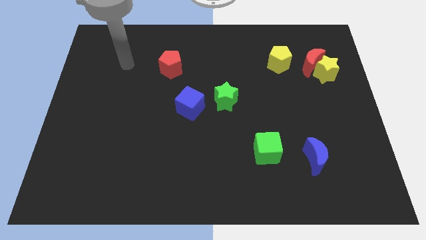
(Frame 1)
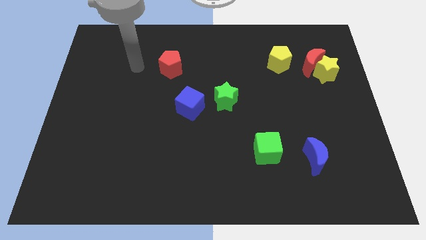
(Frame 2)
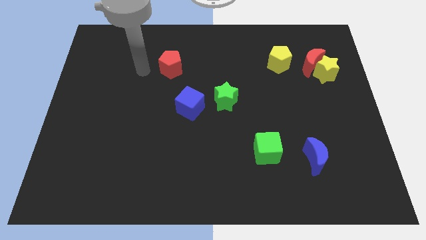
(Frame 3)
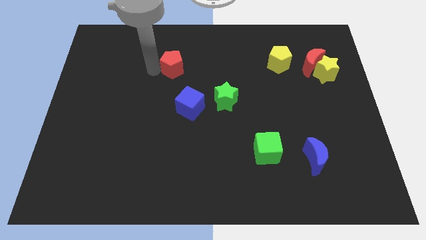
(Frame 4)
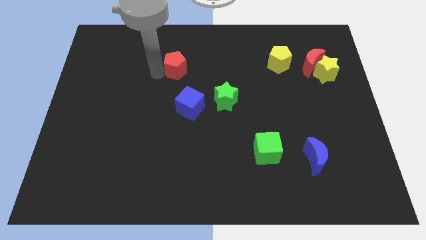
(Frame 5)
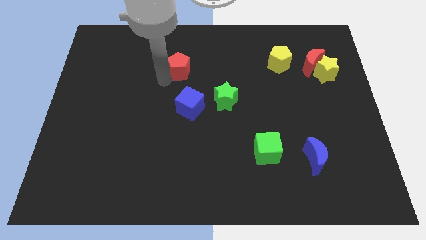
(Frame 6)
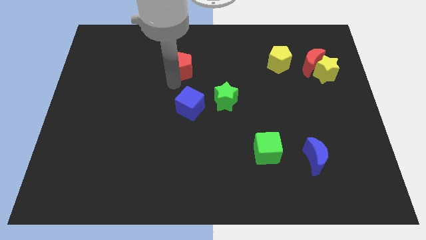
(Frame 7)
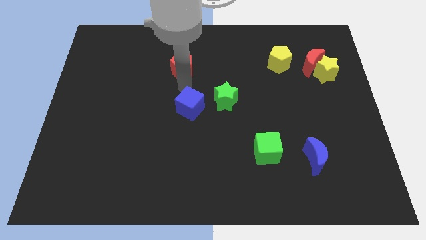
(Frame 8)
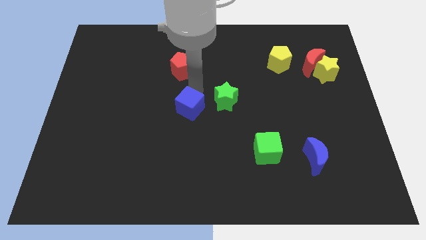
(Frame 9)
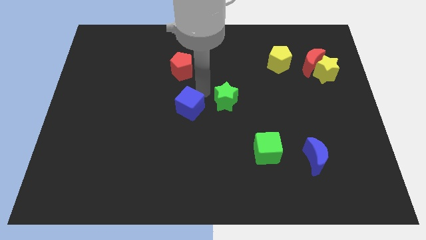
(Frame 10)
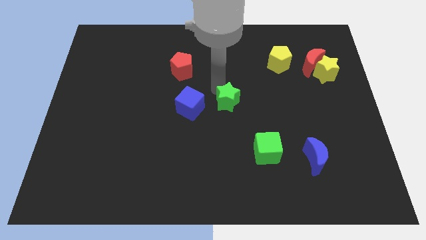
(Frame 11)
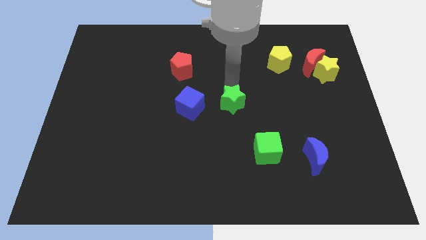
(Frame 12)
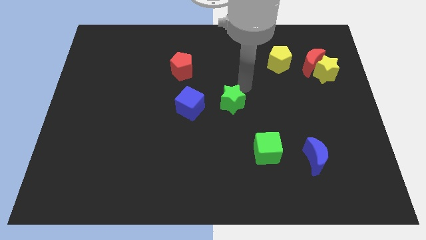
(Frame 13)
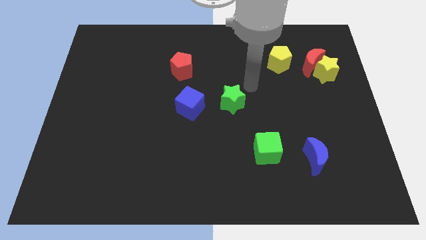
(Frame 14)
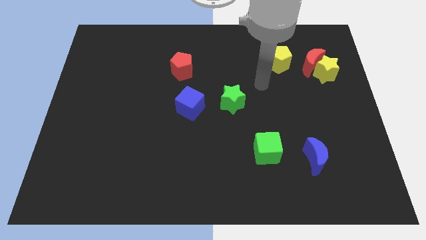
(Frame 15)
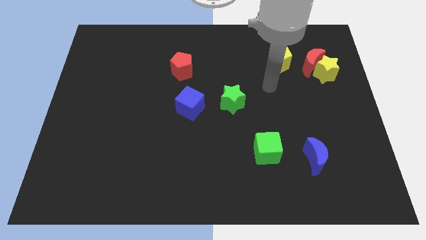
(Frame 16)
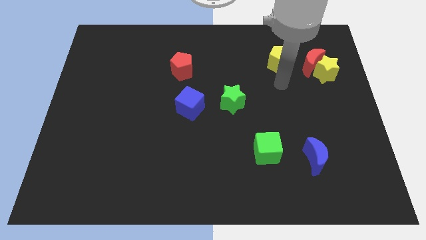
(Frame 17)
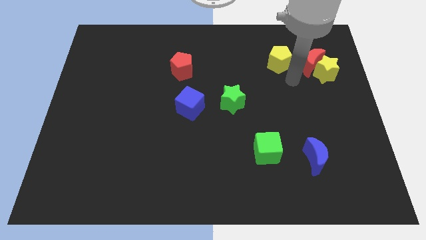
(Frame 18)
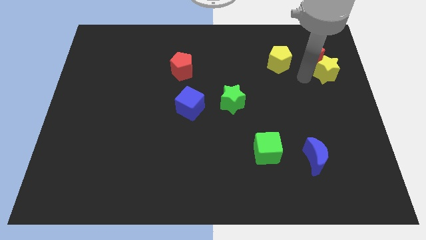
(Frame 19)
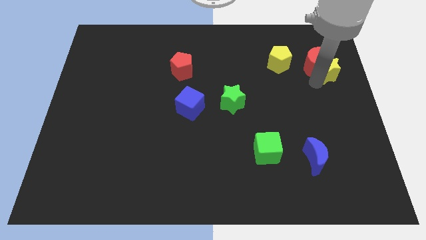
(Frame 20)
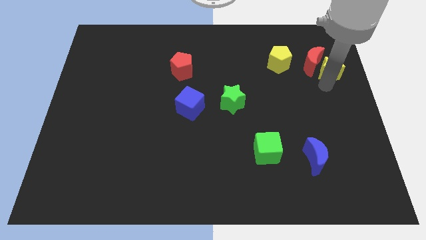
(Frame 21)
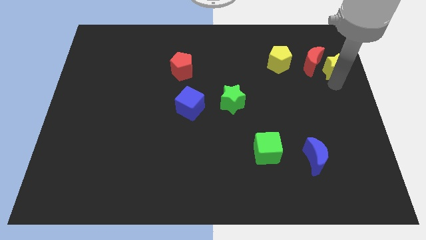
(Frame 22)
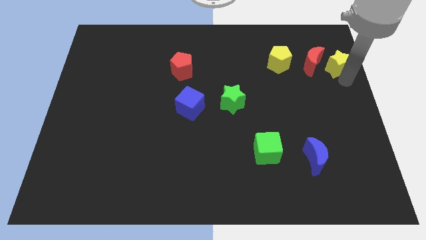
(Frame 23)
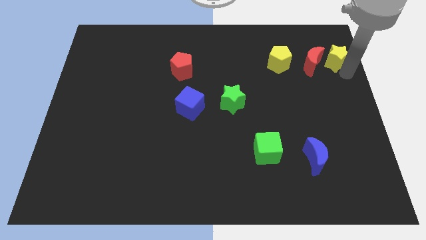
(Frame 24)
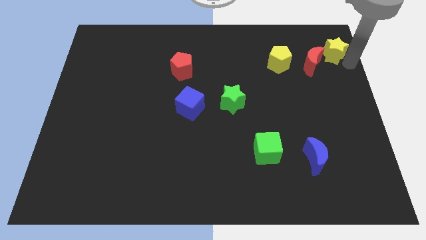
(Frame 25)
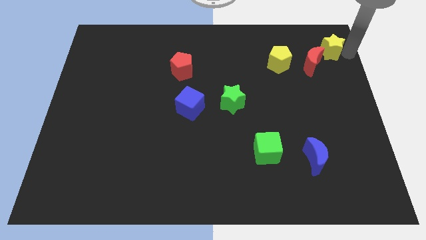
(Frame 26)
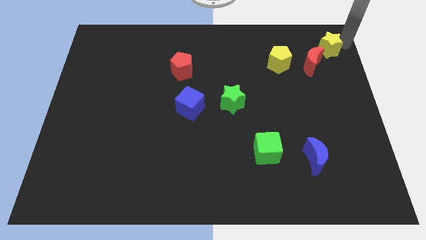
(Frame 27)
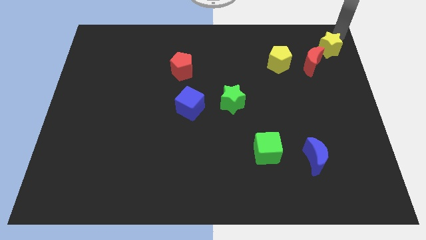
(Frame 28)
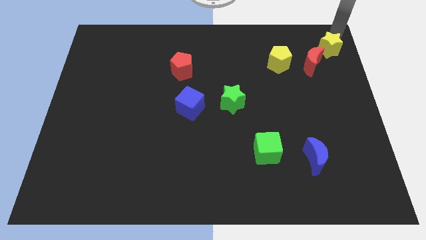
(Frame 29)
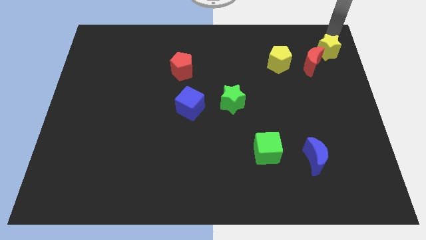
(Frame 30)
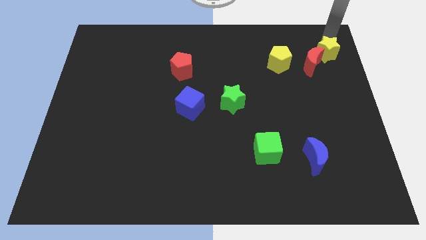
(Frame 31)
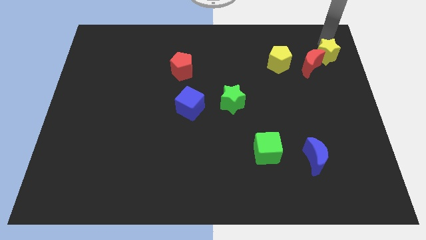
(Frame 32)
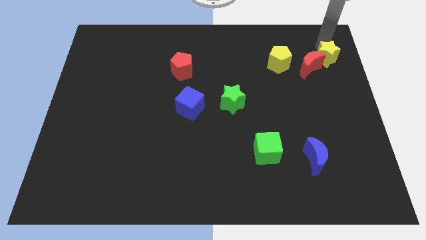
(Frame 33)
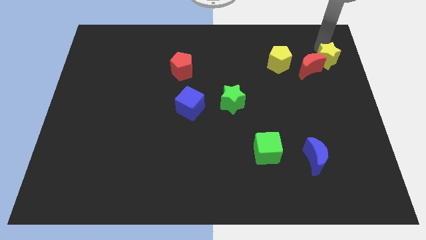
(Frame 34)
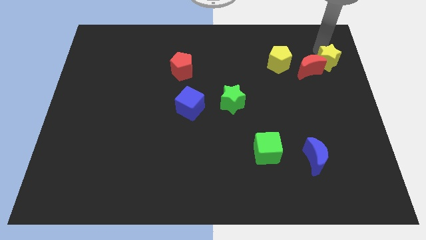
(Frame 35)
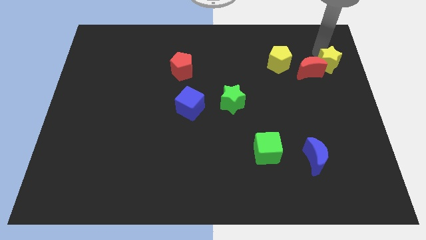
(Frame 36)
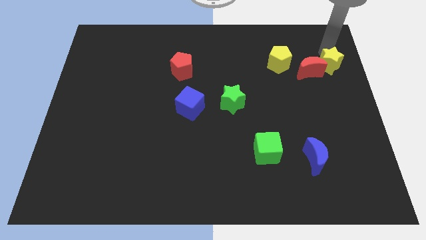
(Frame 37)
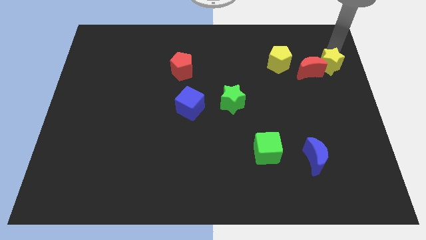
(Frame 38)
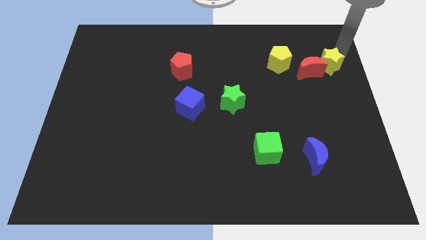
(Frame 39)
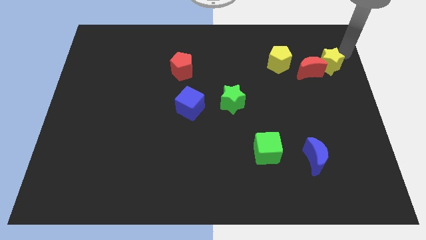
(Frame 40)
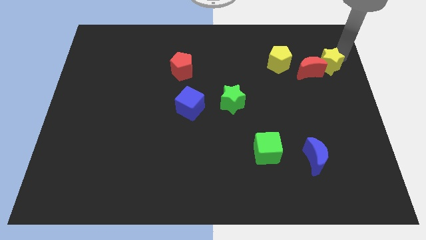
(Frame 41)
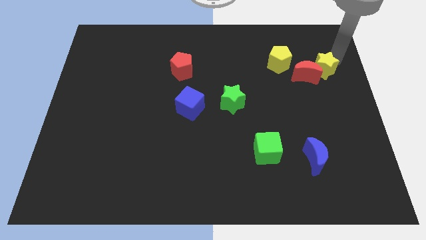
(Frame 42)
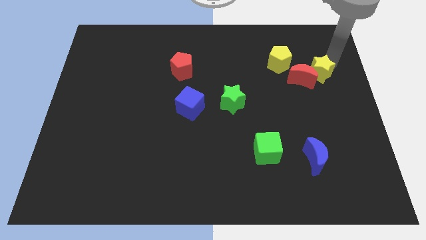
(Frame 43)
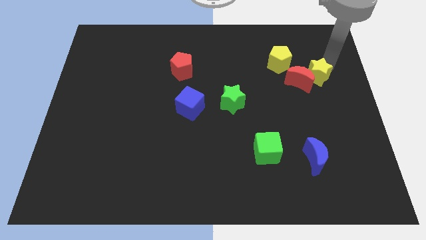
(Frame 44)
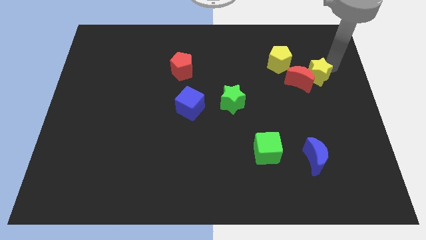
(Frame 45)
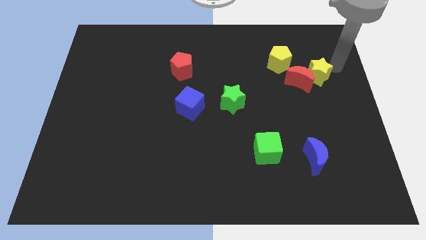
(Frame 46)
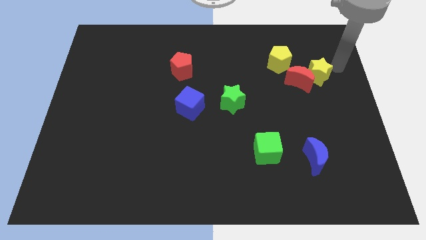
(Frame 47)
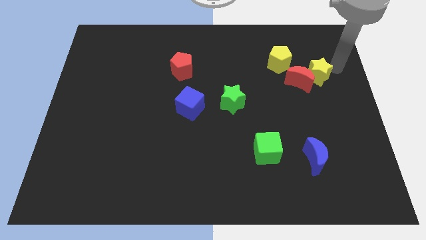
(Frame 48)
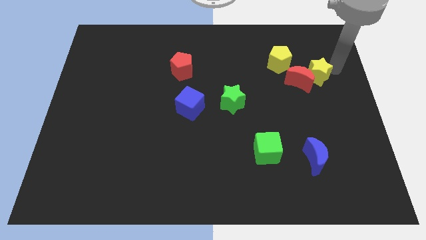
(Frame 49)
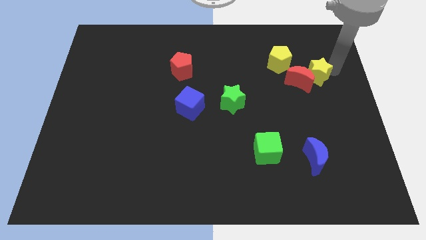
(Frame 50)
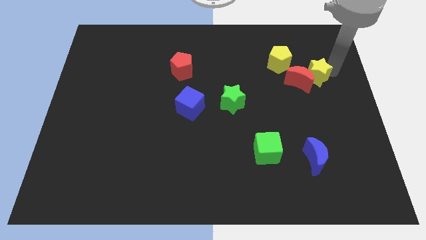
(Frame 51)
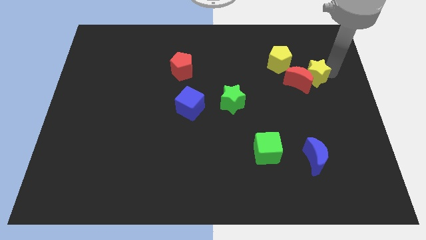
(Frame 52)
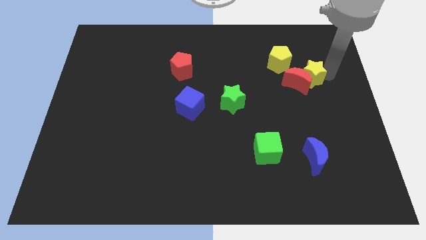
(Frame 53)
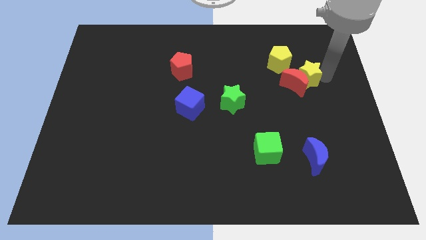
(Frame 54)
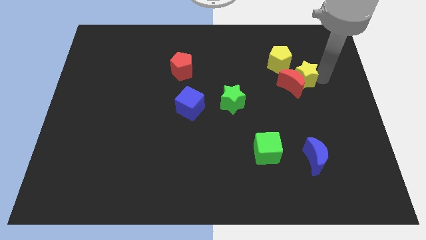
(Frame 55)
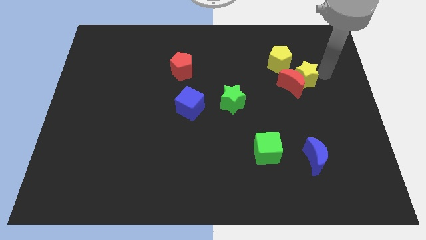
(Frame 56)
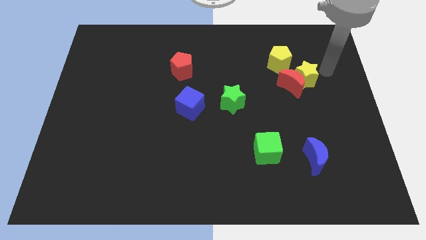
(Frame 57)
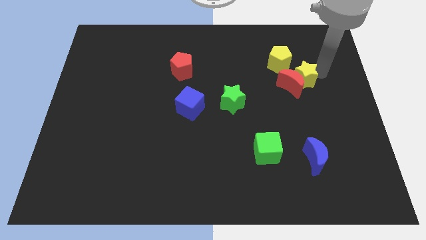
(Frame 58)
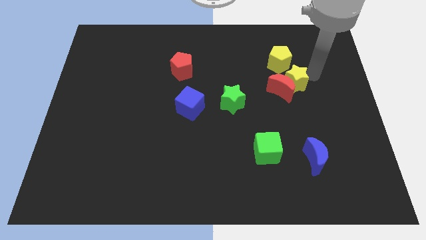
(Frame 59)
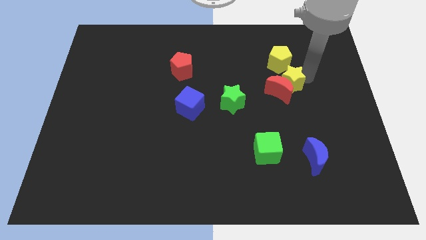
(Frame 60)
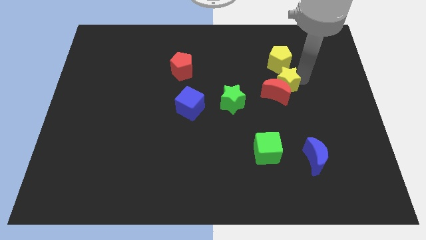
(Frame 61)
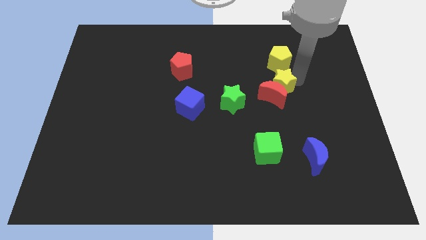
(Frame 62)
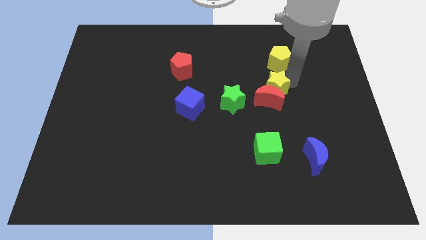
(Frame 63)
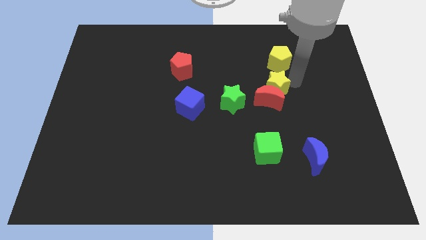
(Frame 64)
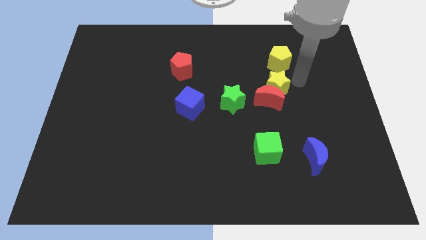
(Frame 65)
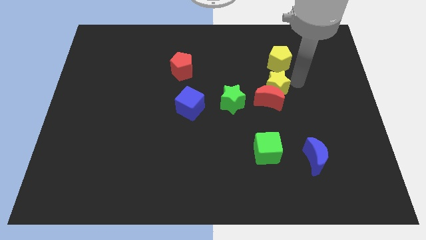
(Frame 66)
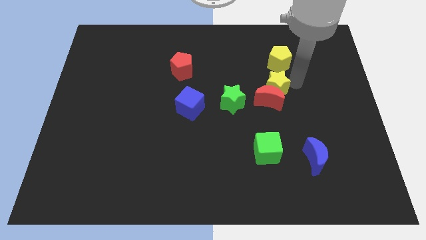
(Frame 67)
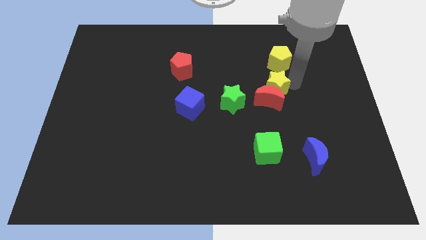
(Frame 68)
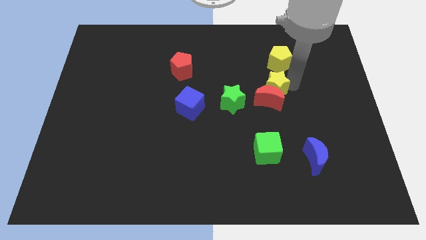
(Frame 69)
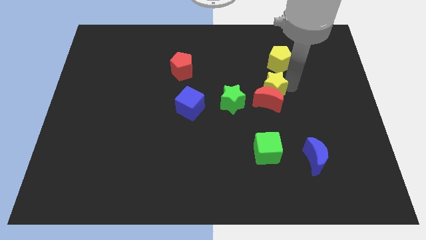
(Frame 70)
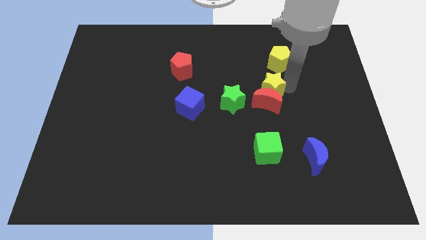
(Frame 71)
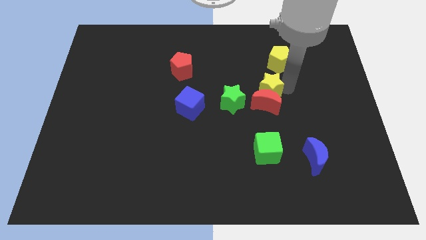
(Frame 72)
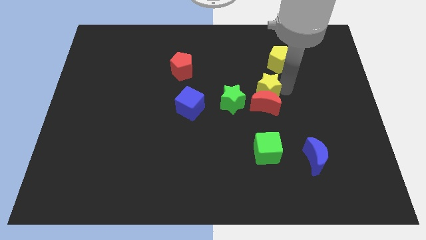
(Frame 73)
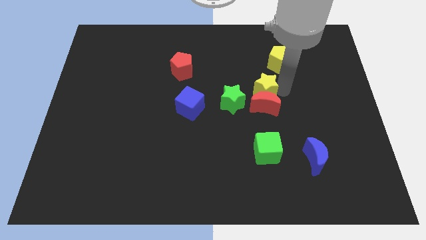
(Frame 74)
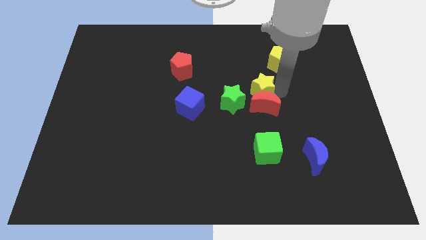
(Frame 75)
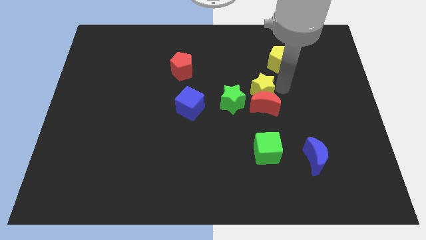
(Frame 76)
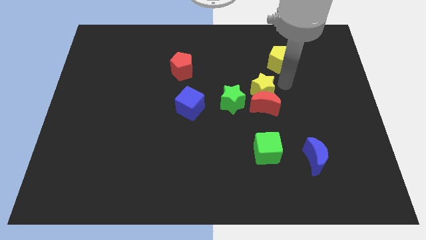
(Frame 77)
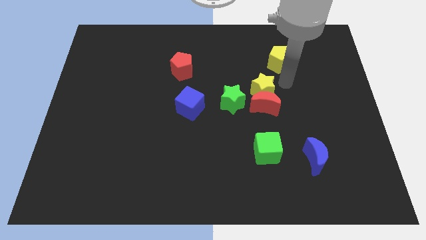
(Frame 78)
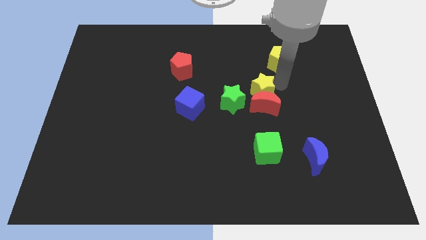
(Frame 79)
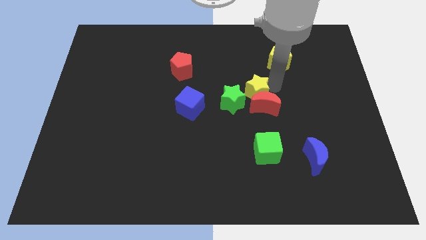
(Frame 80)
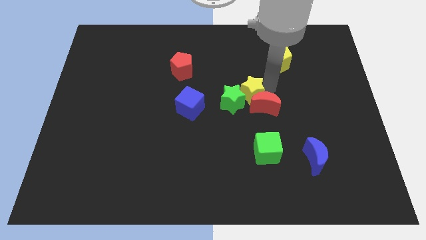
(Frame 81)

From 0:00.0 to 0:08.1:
push the yellow star close to the green star
